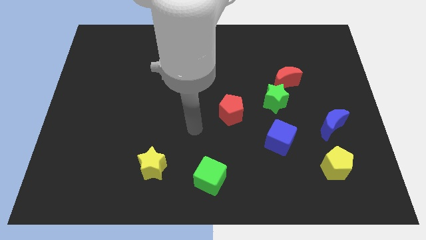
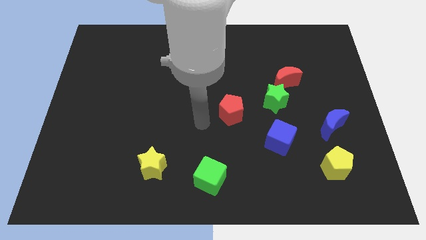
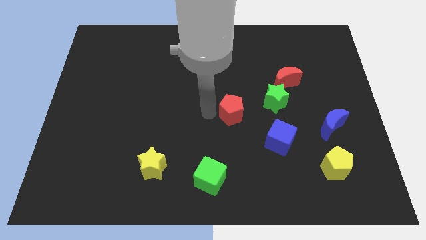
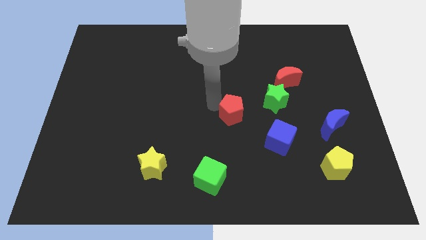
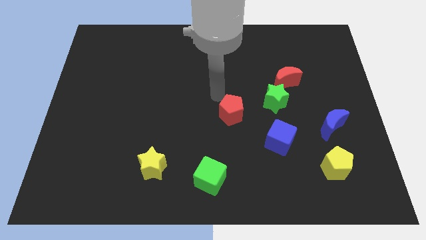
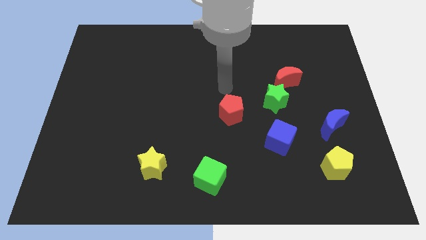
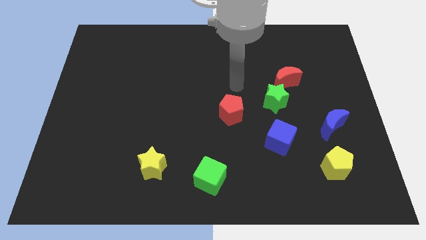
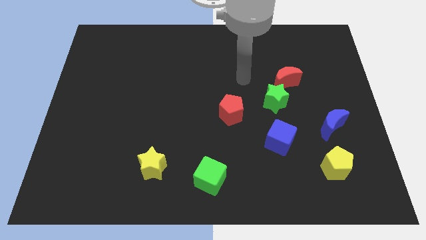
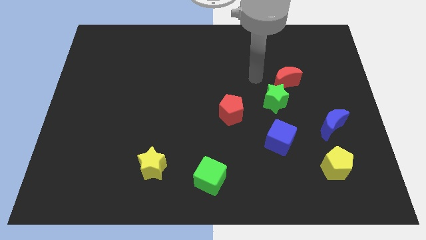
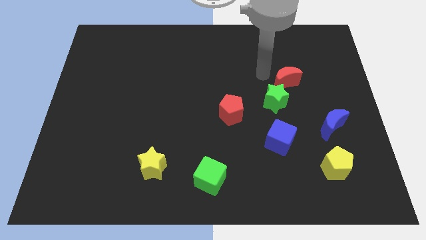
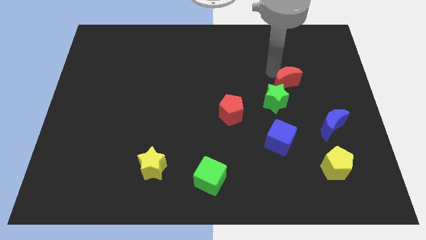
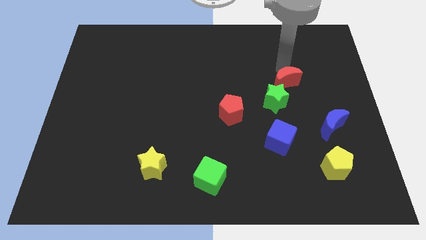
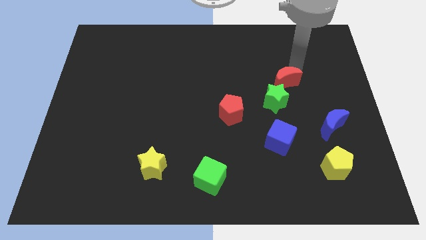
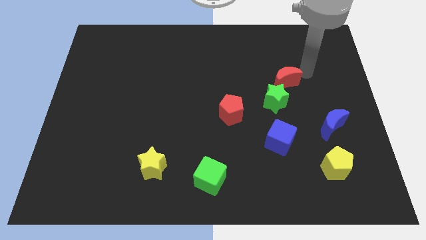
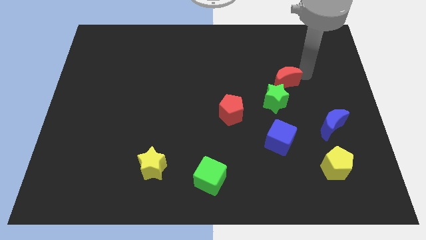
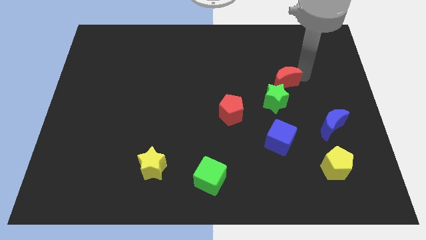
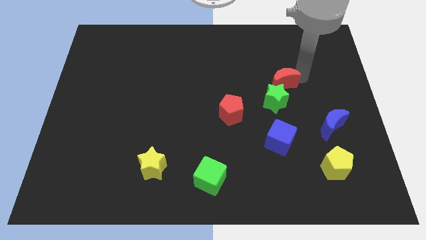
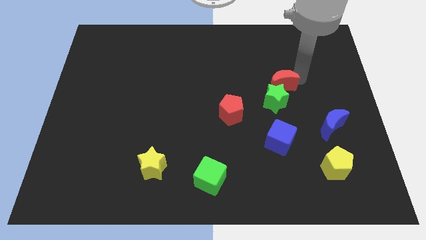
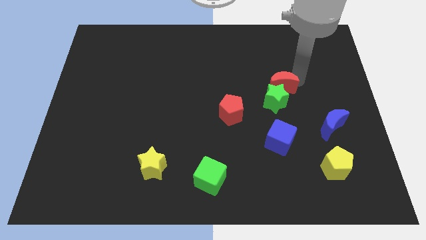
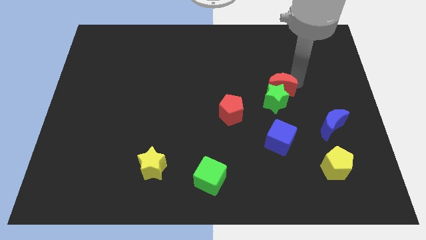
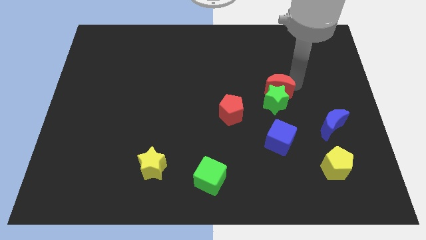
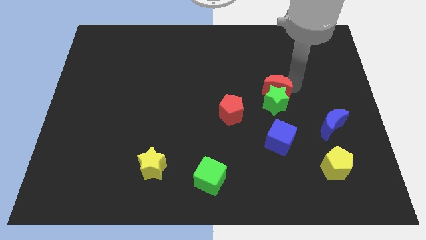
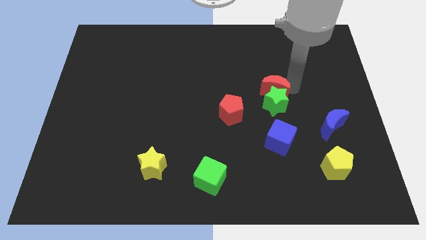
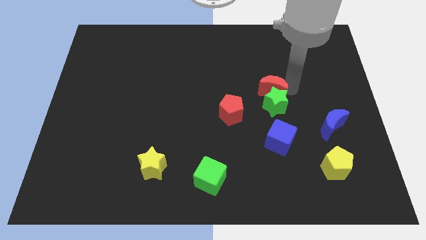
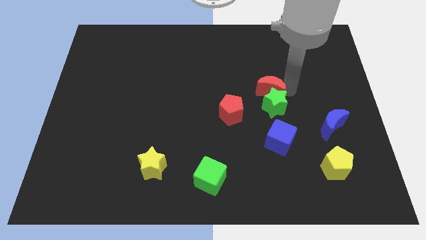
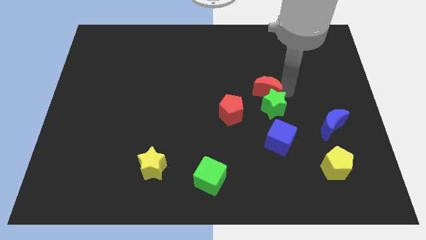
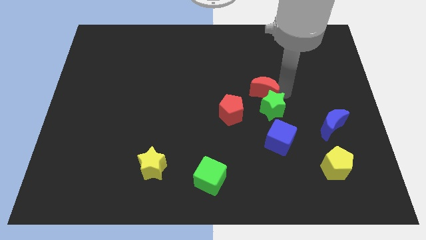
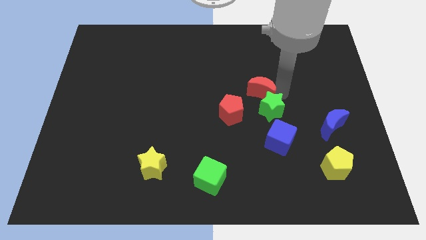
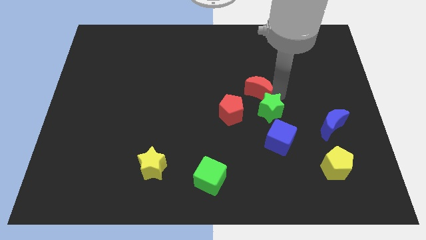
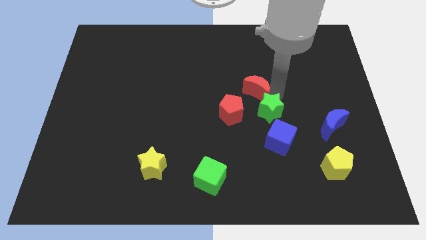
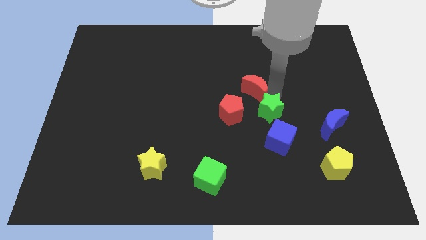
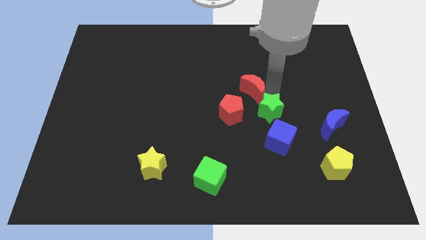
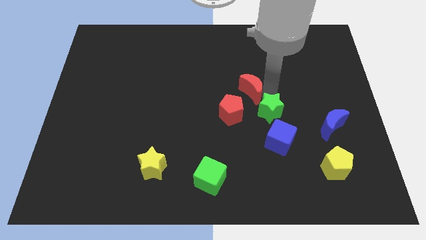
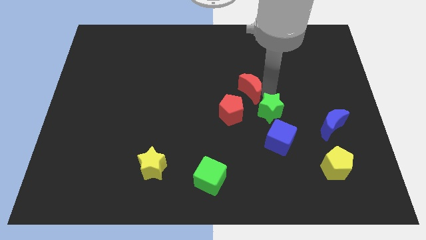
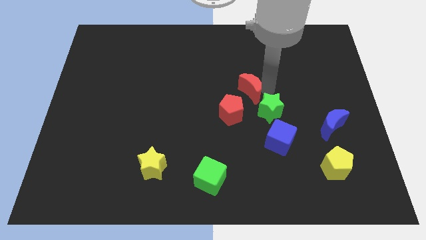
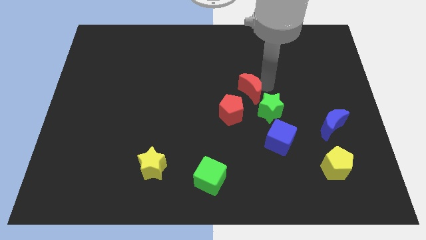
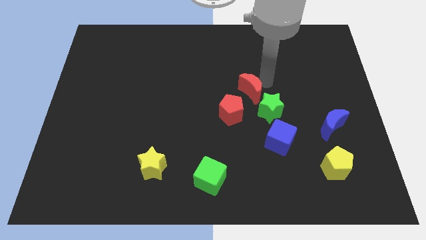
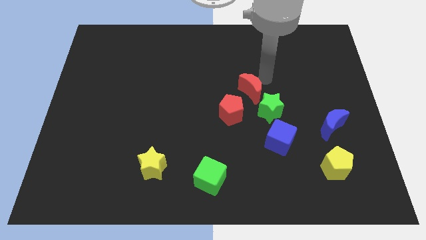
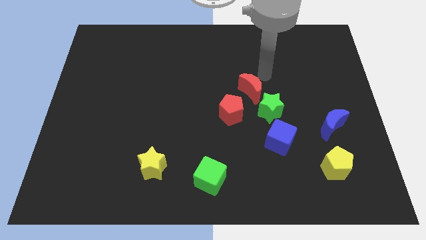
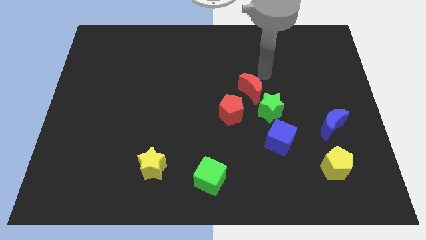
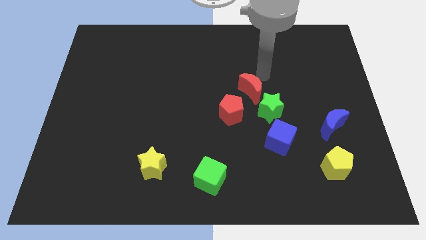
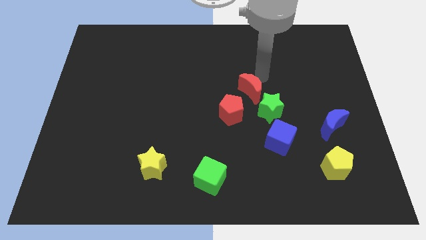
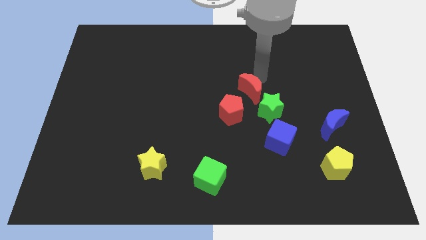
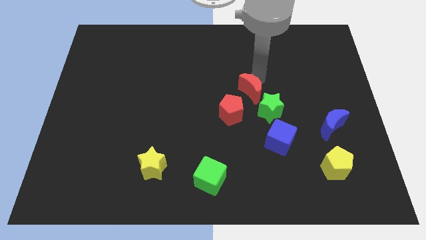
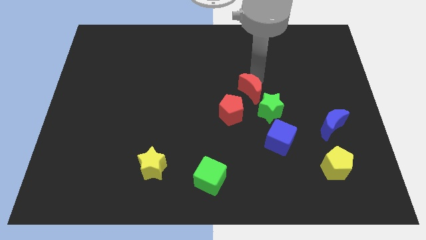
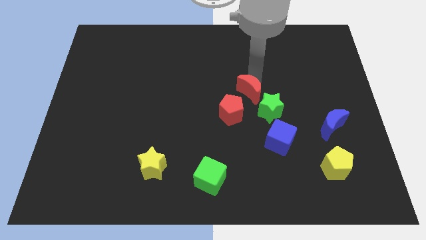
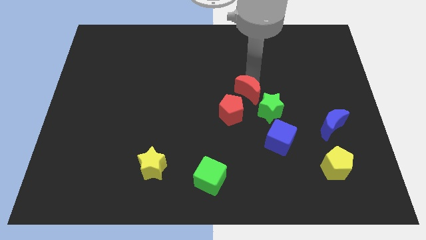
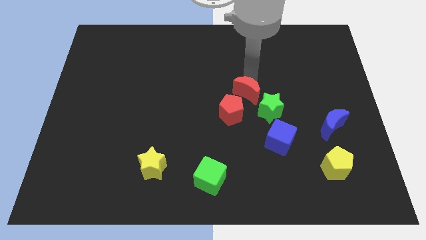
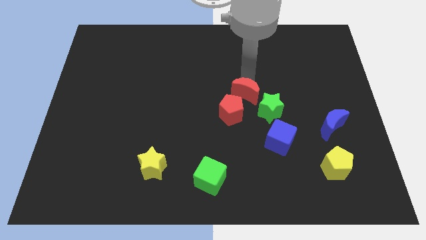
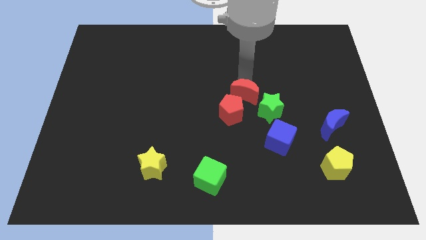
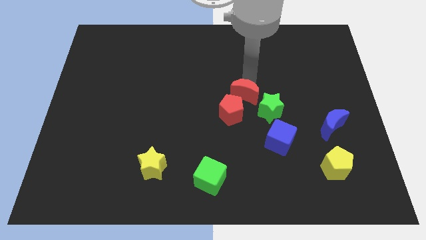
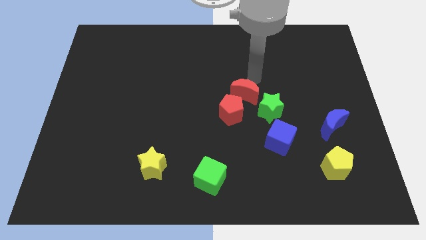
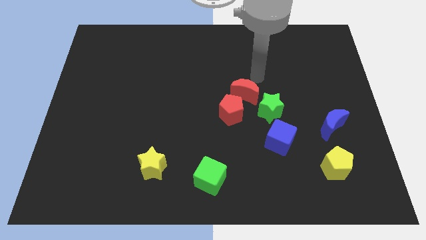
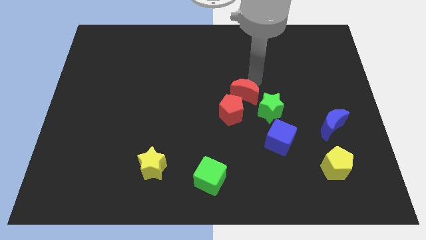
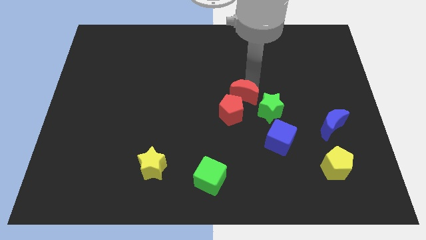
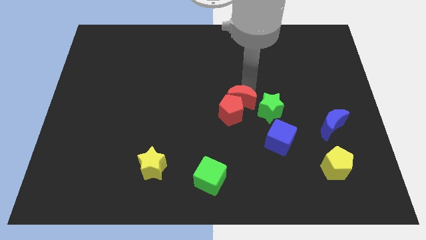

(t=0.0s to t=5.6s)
put the red moon towards the red pentagon
